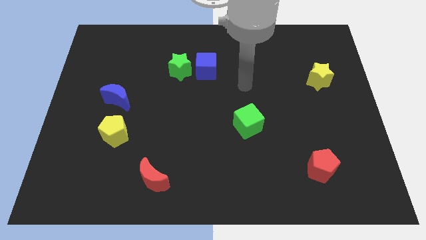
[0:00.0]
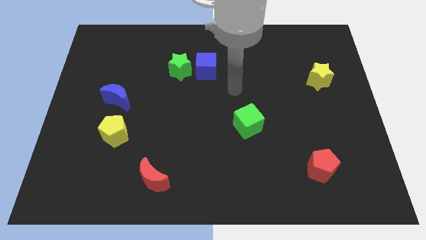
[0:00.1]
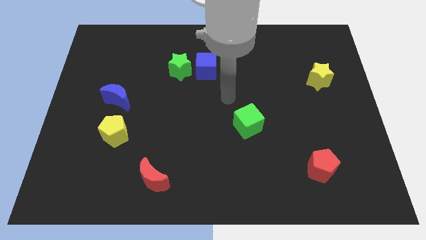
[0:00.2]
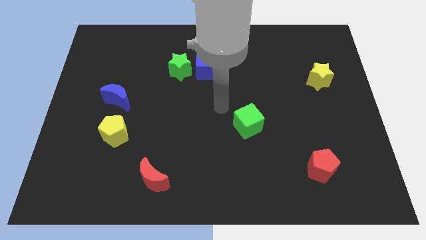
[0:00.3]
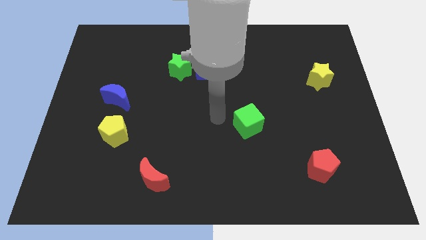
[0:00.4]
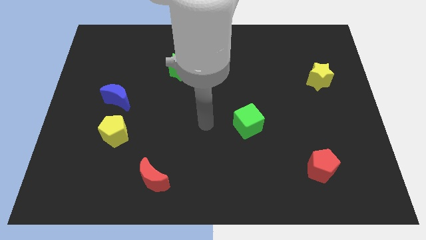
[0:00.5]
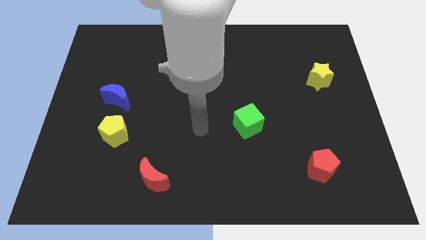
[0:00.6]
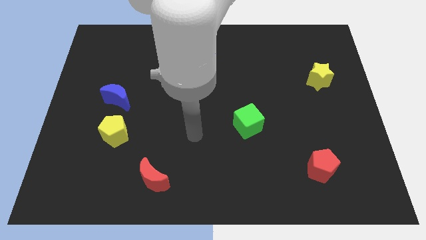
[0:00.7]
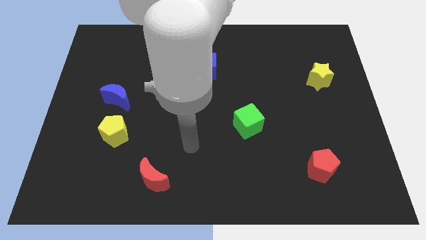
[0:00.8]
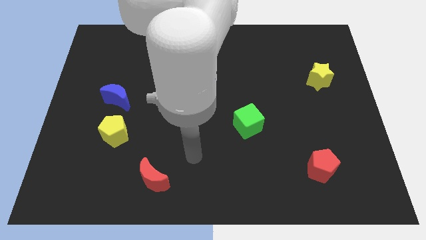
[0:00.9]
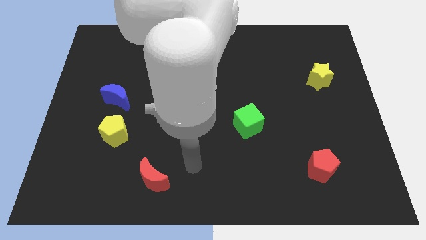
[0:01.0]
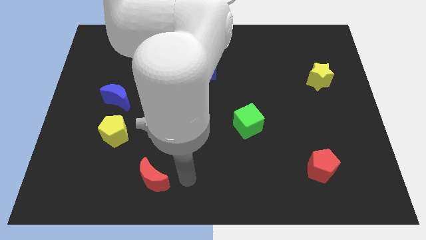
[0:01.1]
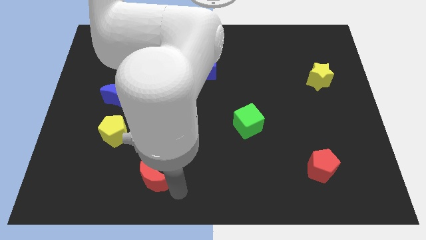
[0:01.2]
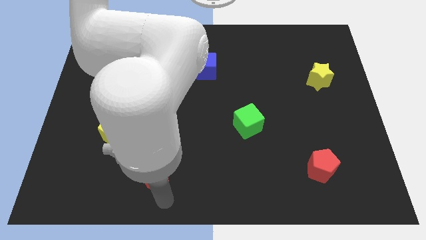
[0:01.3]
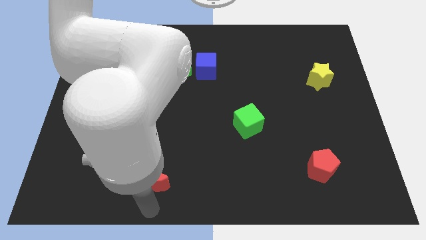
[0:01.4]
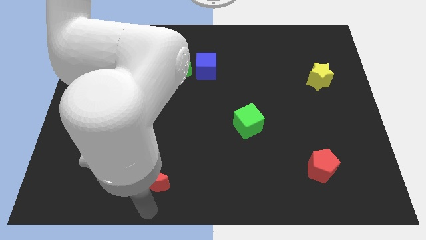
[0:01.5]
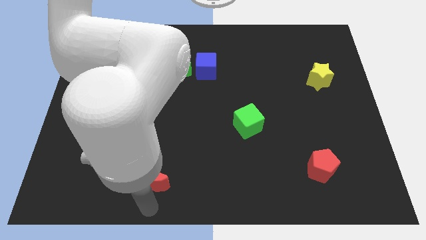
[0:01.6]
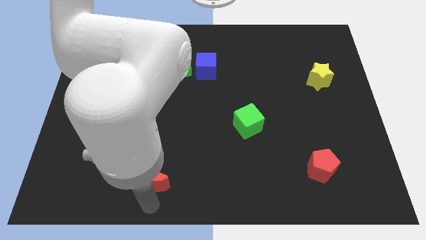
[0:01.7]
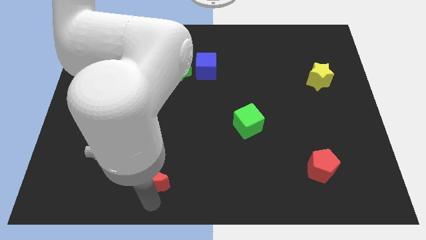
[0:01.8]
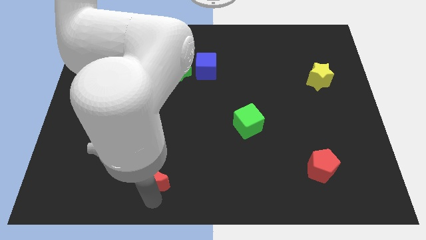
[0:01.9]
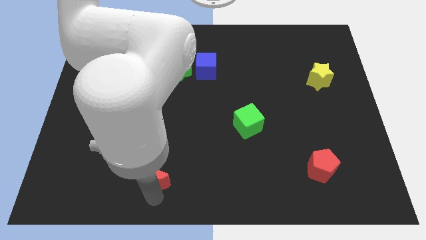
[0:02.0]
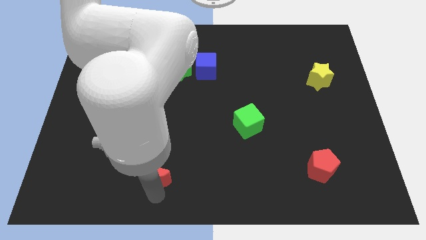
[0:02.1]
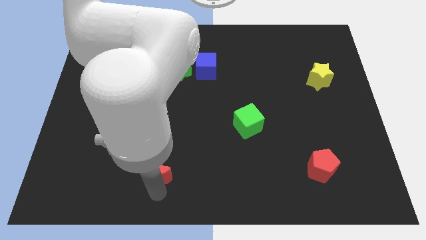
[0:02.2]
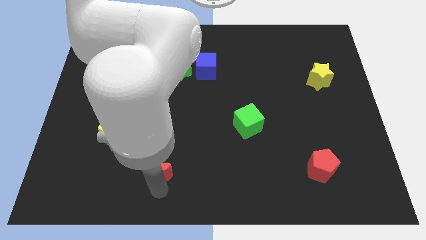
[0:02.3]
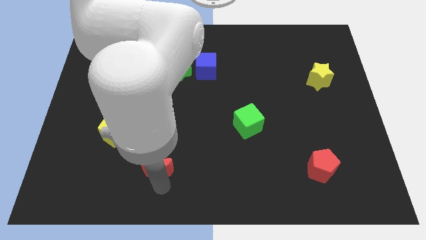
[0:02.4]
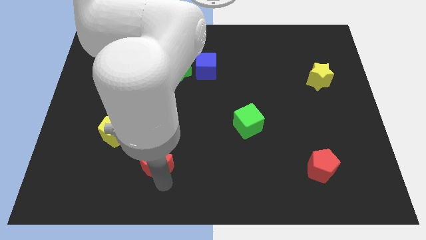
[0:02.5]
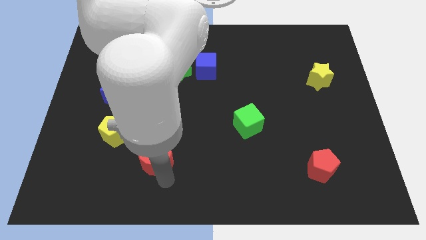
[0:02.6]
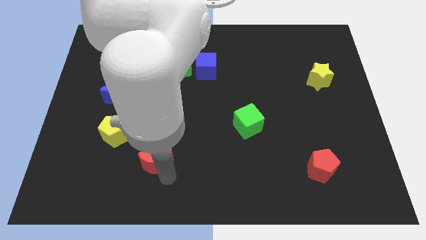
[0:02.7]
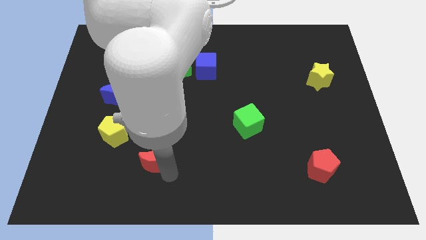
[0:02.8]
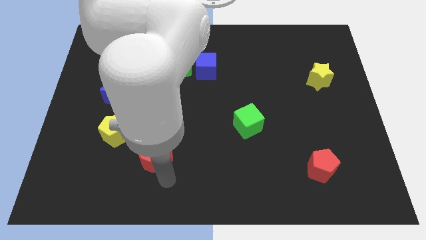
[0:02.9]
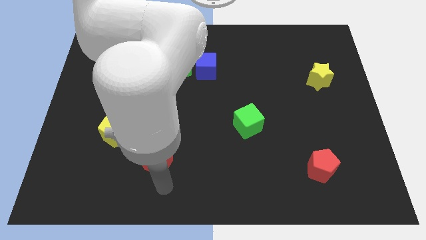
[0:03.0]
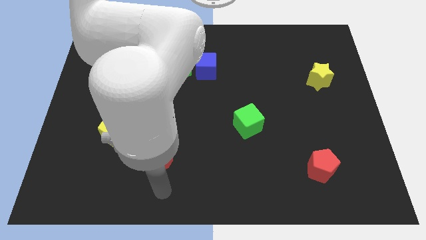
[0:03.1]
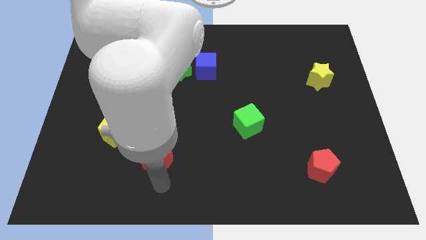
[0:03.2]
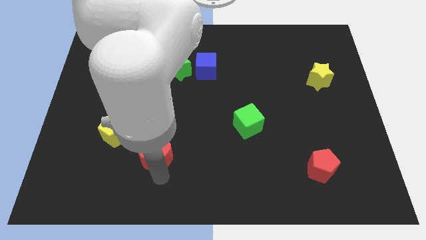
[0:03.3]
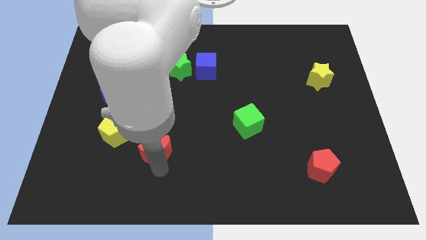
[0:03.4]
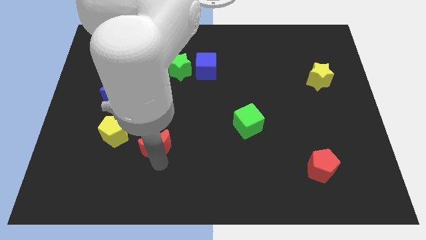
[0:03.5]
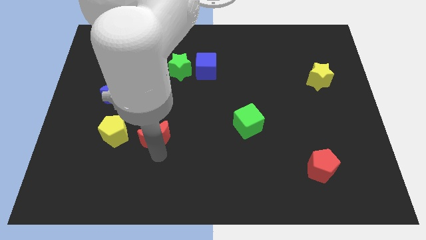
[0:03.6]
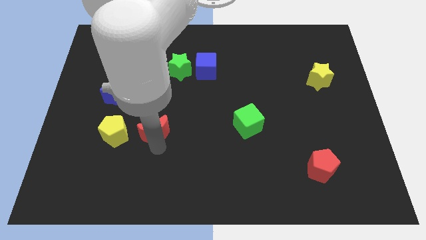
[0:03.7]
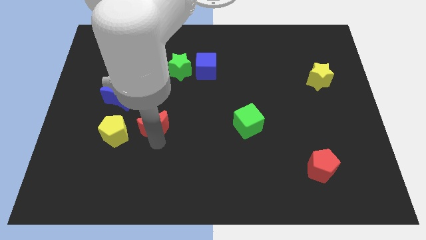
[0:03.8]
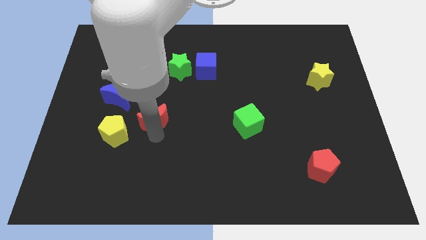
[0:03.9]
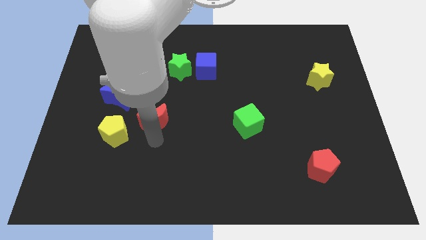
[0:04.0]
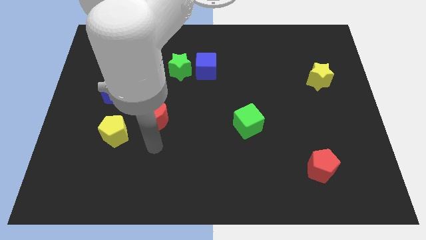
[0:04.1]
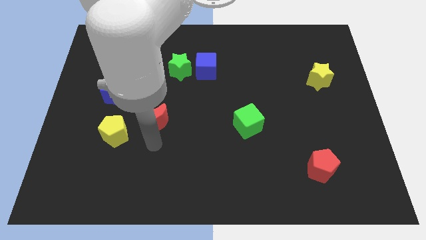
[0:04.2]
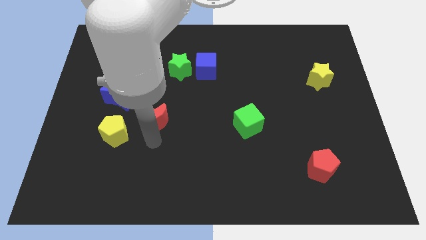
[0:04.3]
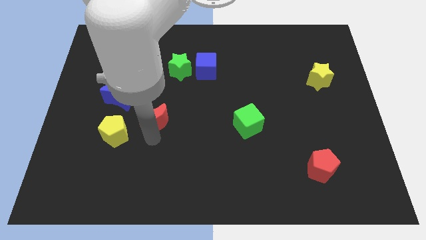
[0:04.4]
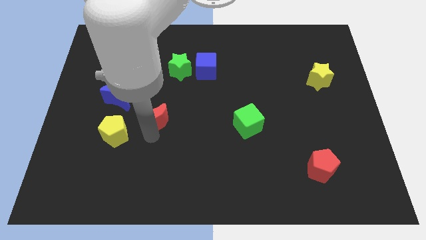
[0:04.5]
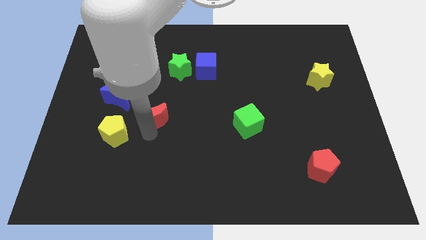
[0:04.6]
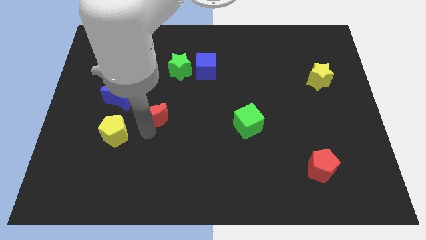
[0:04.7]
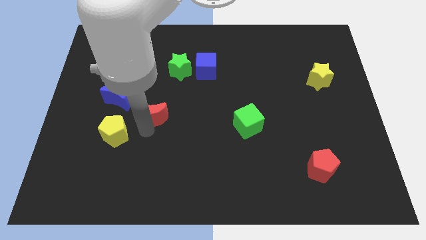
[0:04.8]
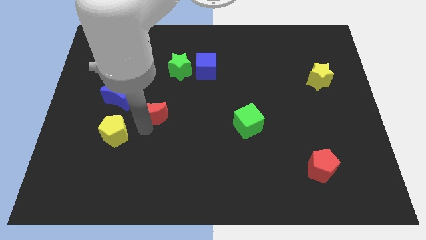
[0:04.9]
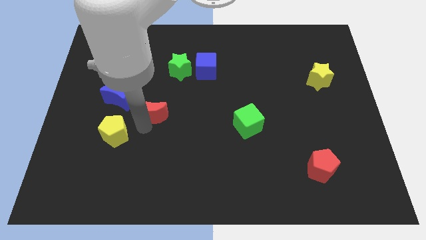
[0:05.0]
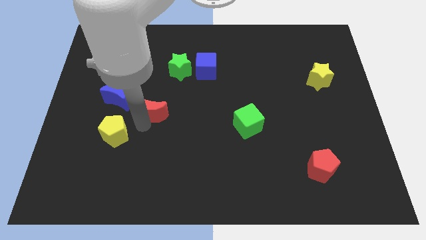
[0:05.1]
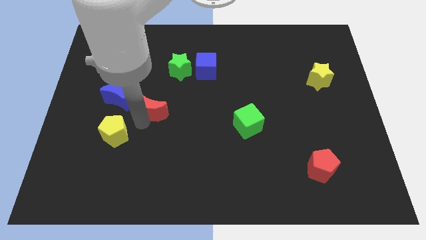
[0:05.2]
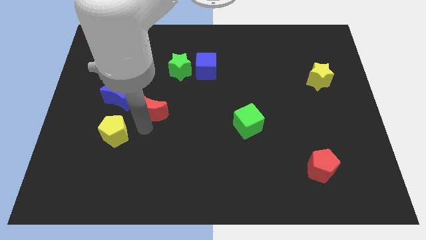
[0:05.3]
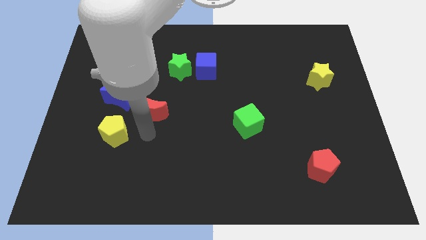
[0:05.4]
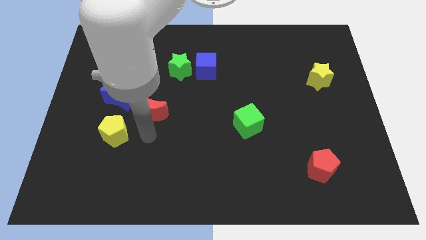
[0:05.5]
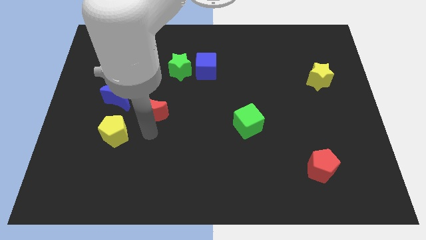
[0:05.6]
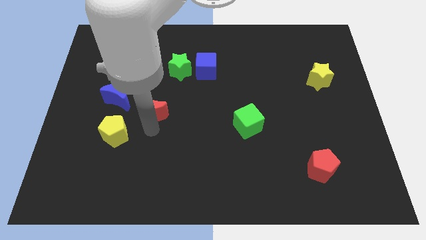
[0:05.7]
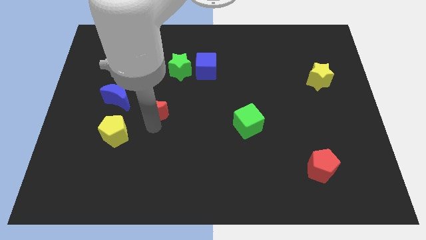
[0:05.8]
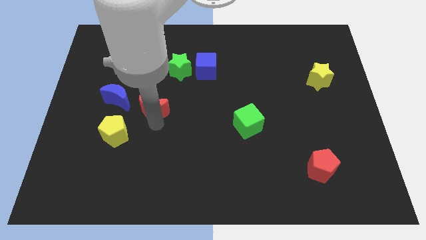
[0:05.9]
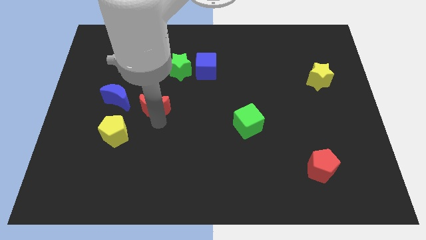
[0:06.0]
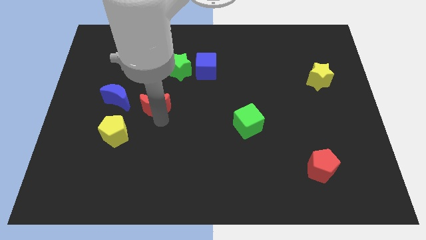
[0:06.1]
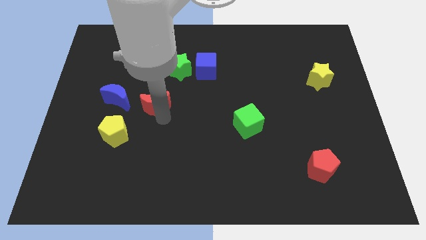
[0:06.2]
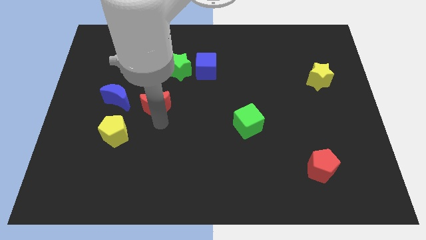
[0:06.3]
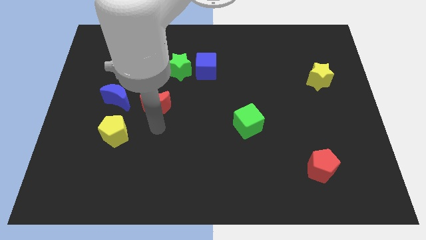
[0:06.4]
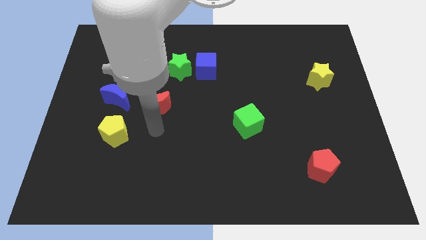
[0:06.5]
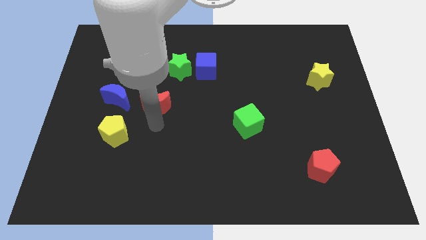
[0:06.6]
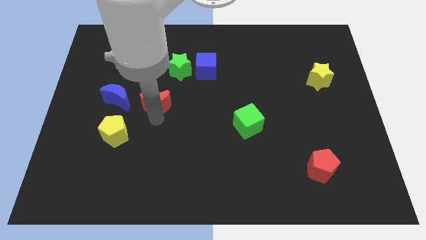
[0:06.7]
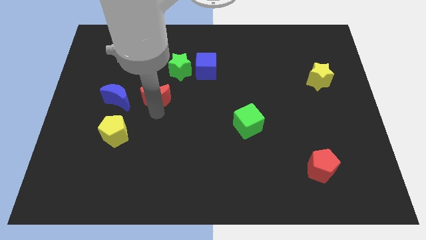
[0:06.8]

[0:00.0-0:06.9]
move the red moon up

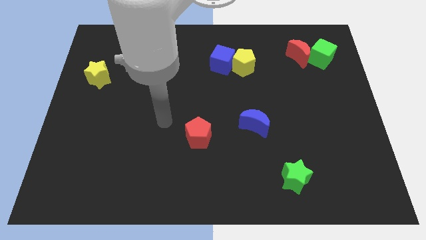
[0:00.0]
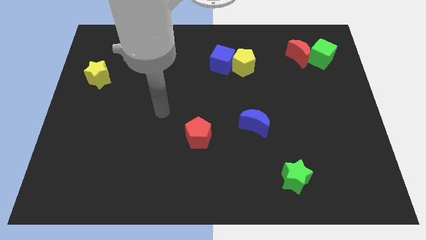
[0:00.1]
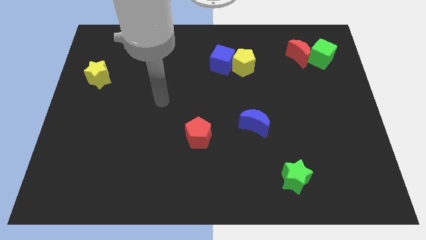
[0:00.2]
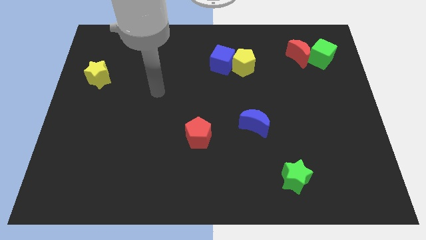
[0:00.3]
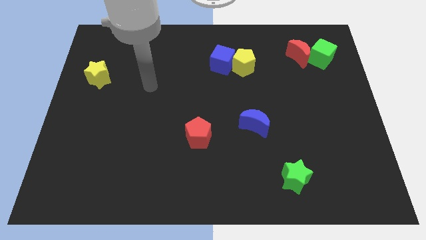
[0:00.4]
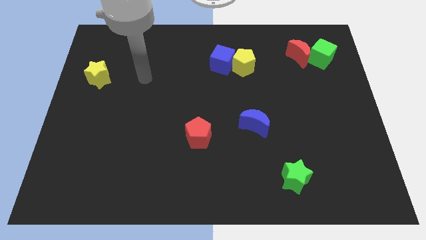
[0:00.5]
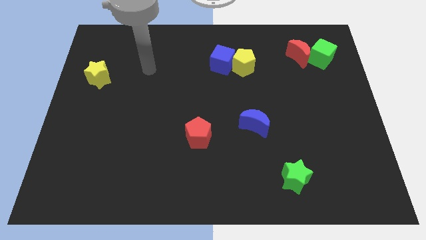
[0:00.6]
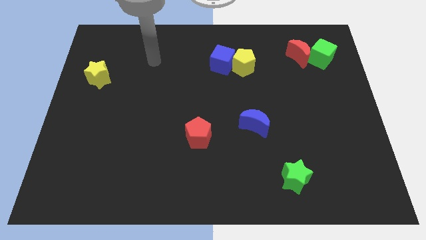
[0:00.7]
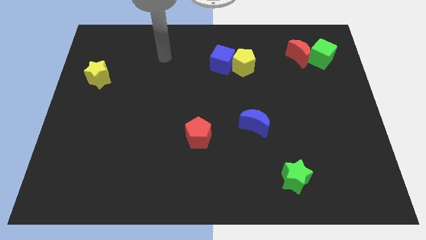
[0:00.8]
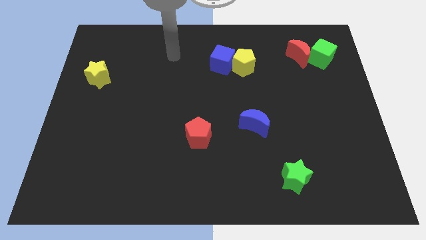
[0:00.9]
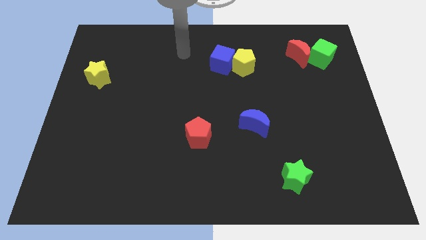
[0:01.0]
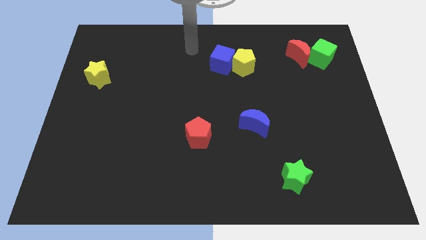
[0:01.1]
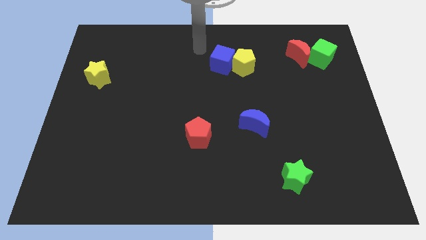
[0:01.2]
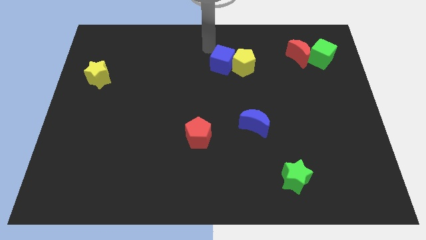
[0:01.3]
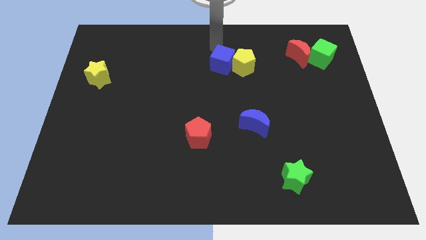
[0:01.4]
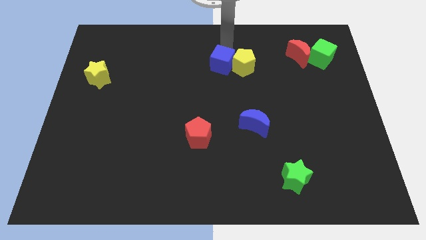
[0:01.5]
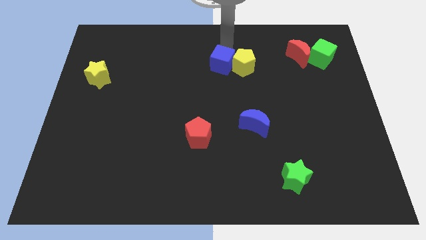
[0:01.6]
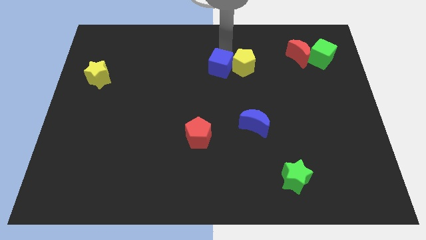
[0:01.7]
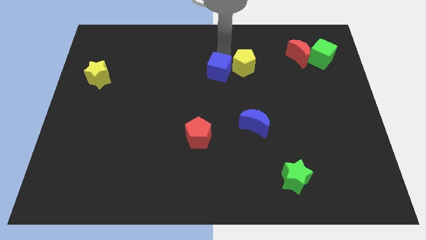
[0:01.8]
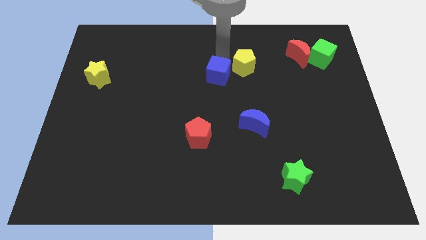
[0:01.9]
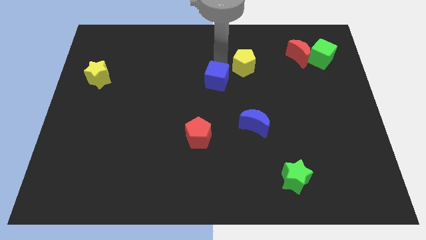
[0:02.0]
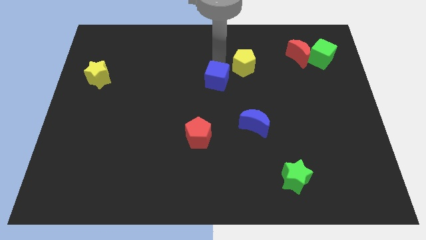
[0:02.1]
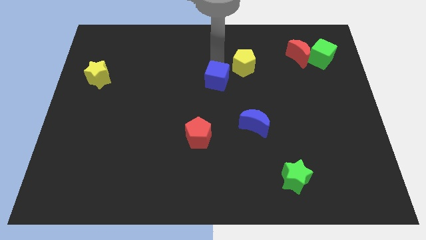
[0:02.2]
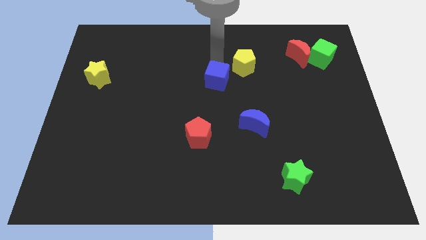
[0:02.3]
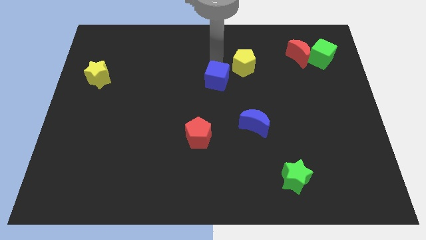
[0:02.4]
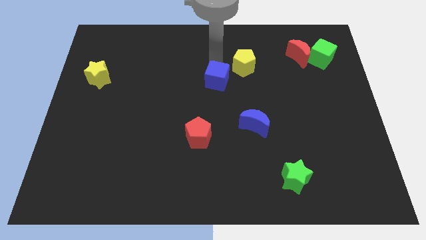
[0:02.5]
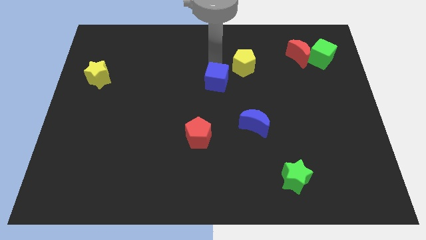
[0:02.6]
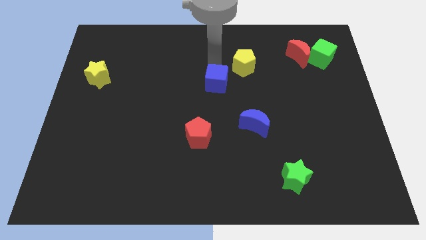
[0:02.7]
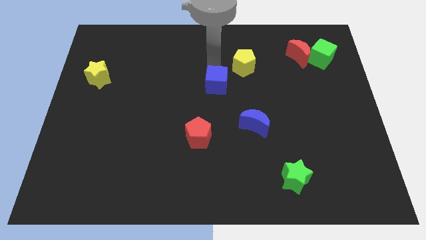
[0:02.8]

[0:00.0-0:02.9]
slightly slide the blue cube down
